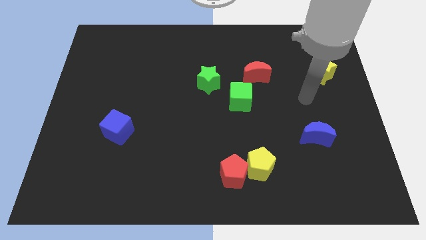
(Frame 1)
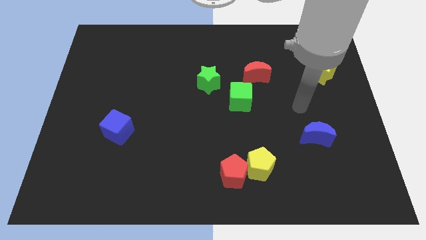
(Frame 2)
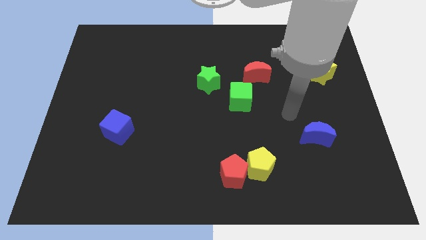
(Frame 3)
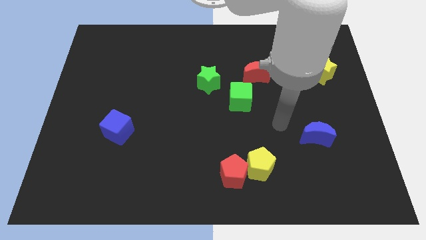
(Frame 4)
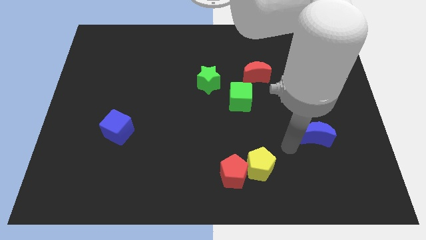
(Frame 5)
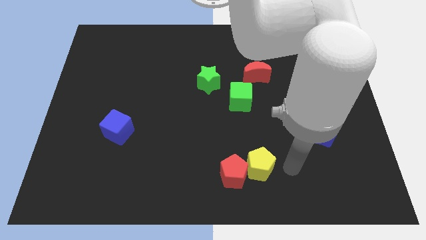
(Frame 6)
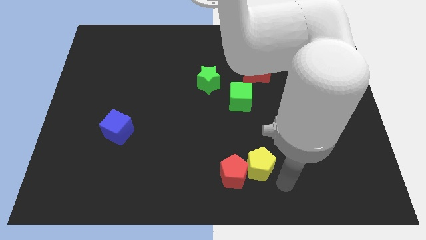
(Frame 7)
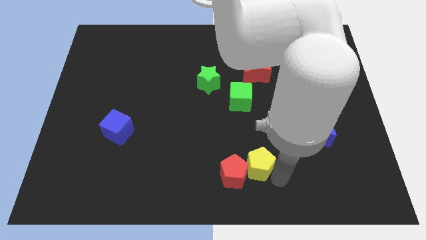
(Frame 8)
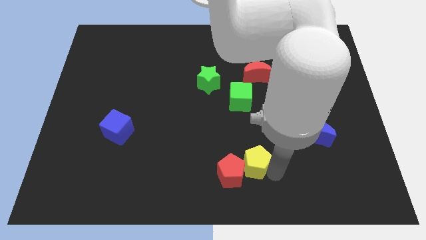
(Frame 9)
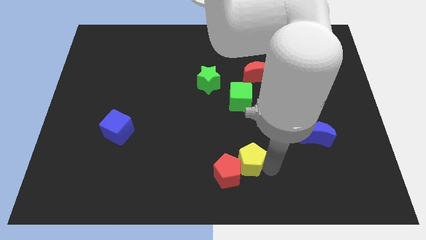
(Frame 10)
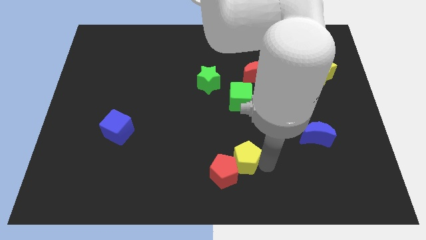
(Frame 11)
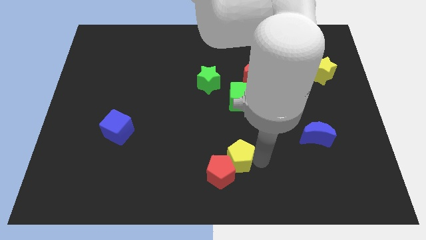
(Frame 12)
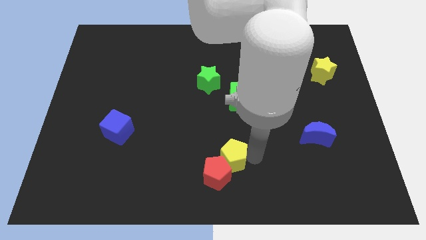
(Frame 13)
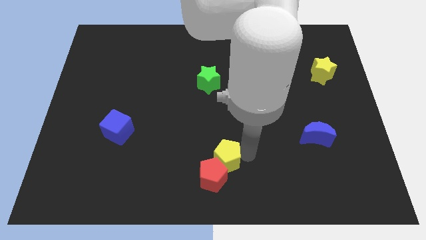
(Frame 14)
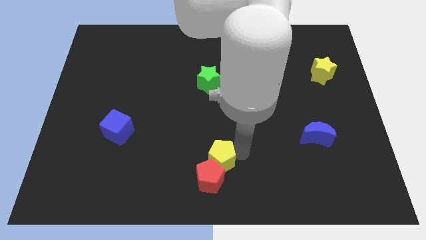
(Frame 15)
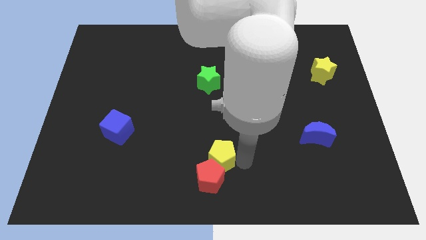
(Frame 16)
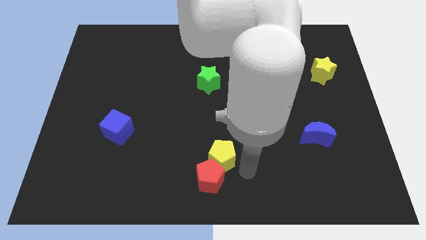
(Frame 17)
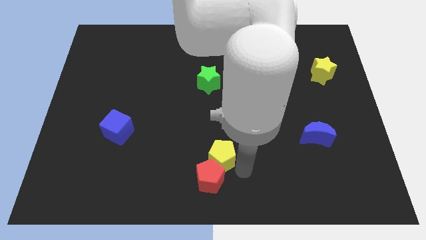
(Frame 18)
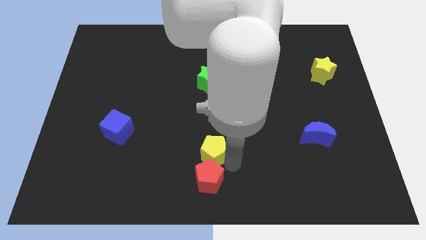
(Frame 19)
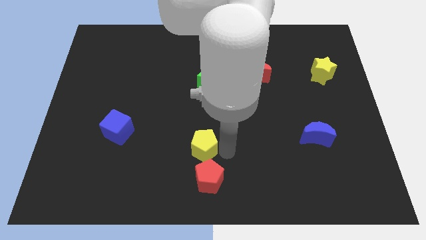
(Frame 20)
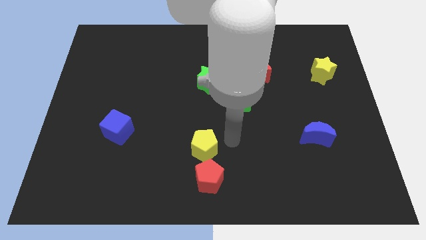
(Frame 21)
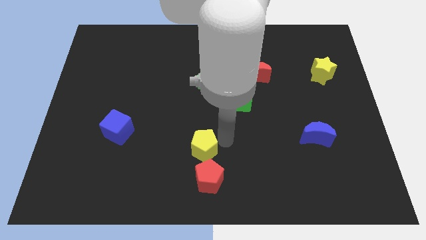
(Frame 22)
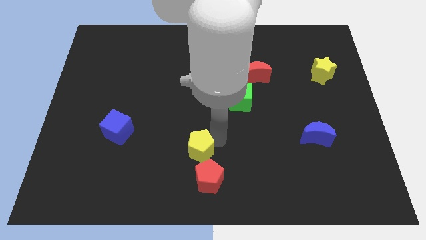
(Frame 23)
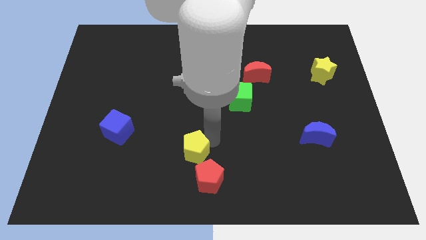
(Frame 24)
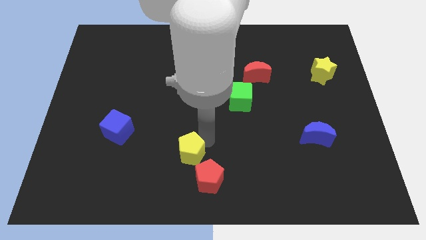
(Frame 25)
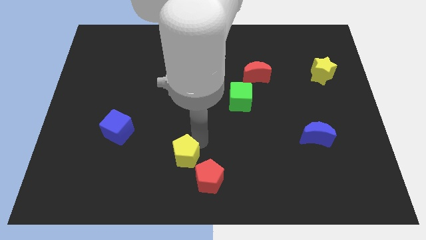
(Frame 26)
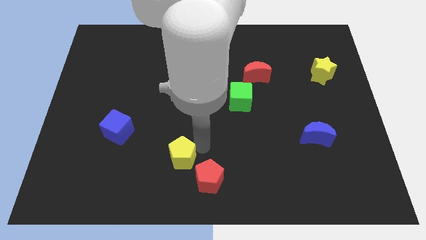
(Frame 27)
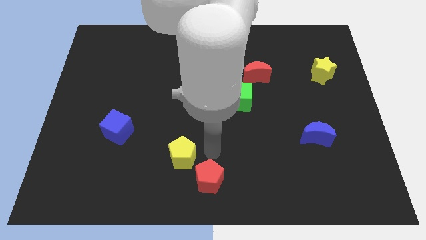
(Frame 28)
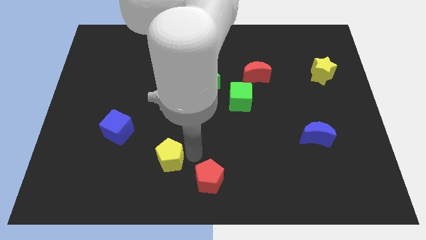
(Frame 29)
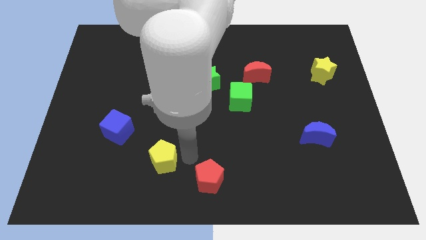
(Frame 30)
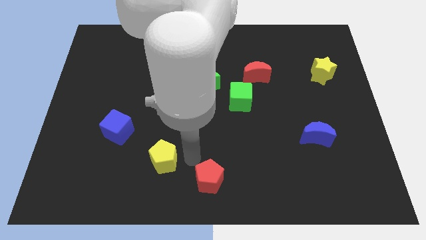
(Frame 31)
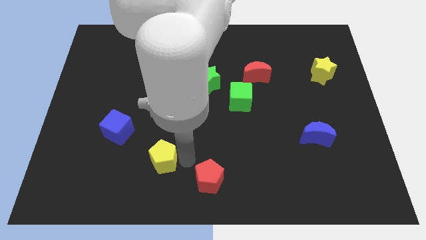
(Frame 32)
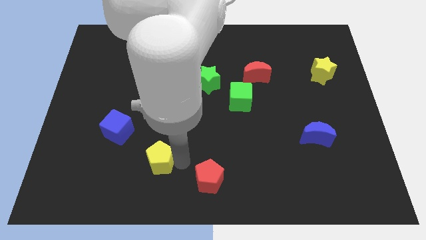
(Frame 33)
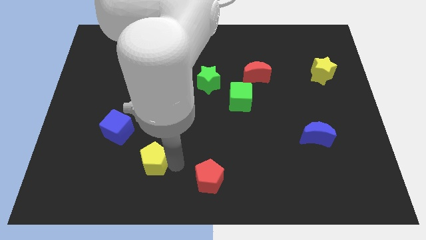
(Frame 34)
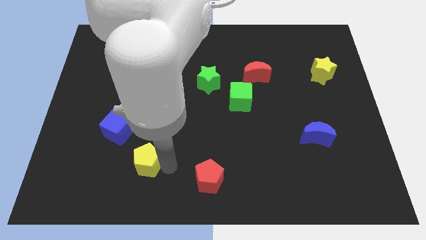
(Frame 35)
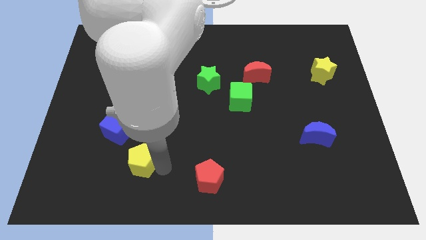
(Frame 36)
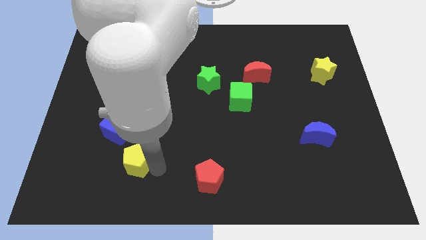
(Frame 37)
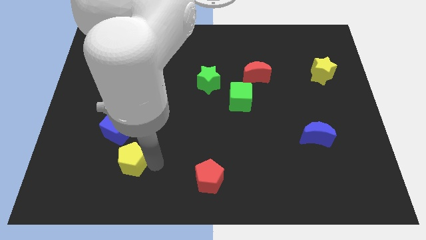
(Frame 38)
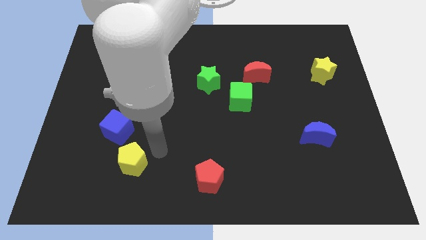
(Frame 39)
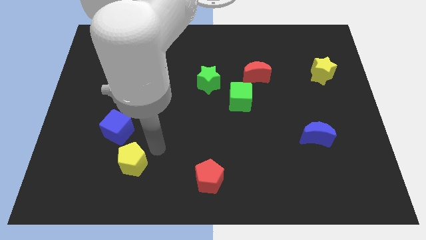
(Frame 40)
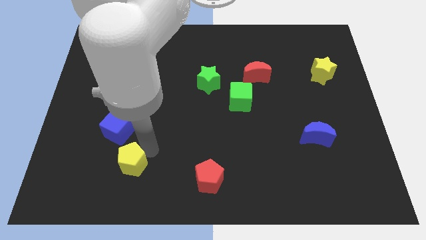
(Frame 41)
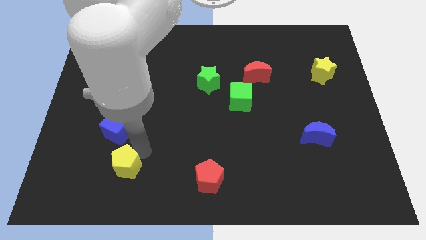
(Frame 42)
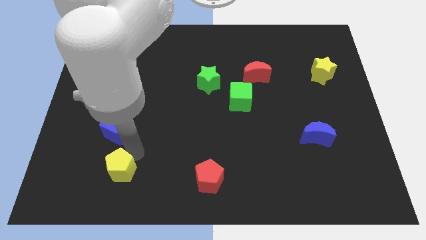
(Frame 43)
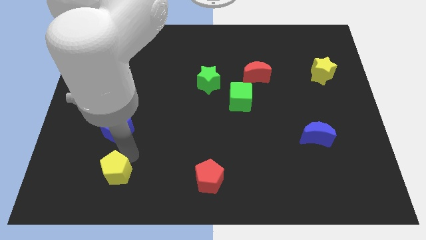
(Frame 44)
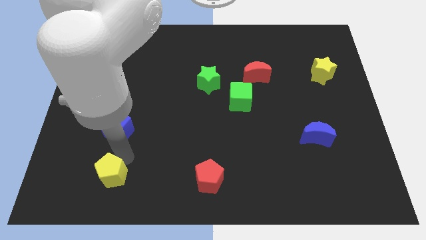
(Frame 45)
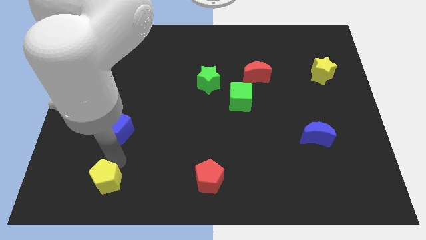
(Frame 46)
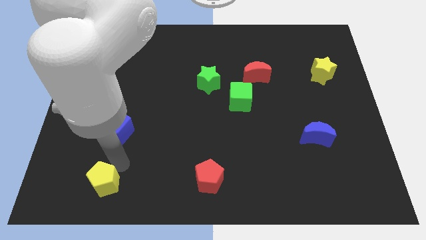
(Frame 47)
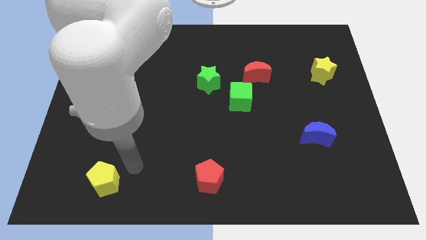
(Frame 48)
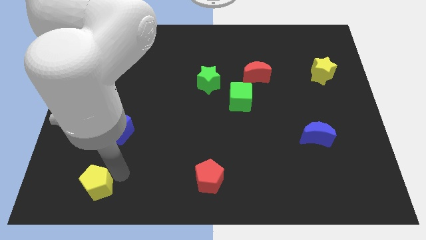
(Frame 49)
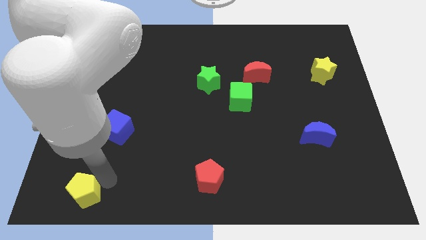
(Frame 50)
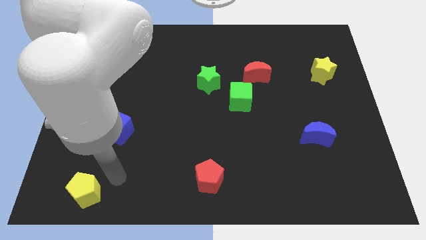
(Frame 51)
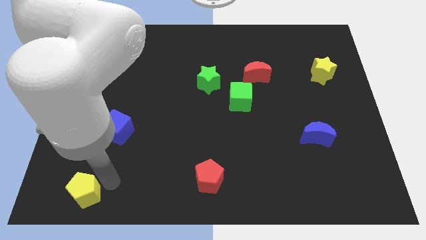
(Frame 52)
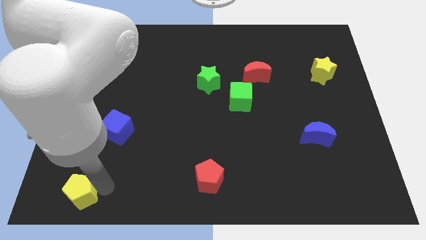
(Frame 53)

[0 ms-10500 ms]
move the yellow pentagon to the bottom left

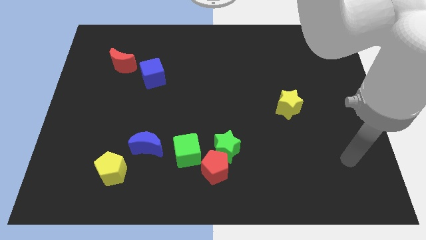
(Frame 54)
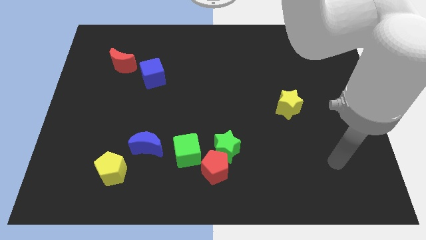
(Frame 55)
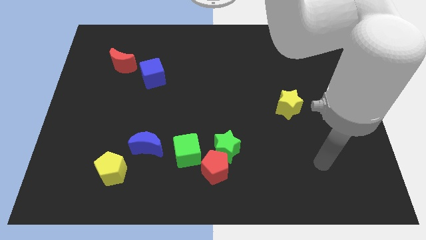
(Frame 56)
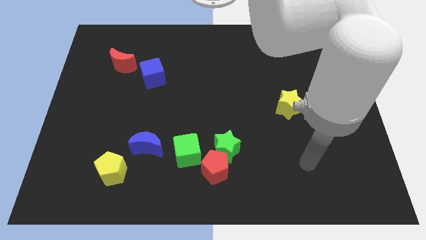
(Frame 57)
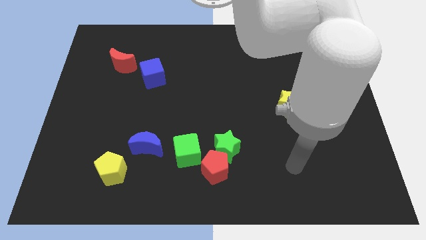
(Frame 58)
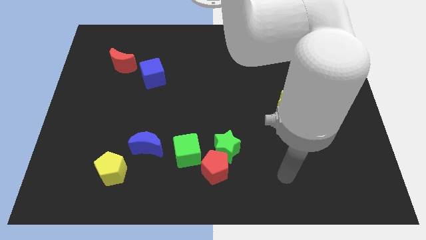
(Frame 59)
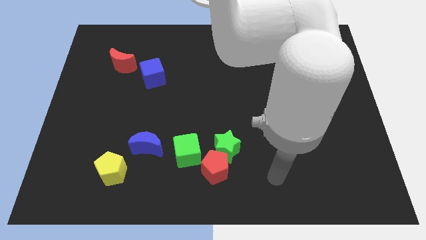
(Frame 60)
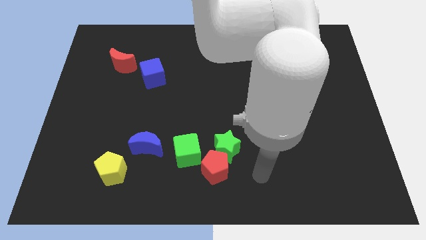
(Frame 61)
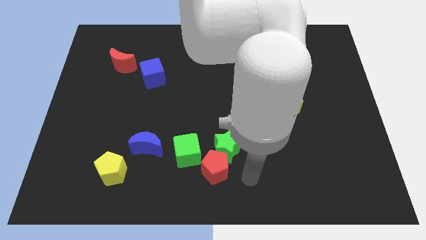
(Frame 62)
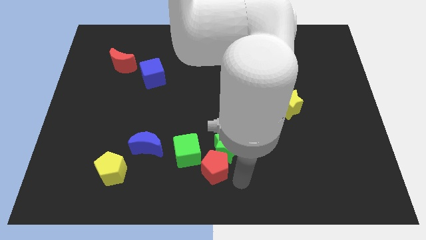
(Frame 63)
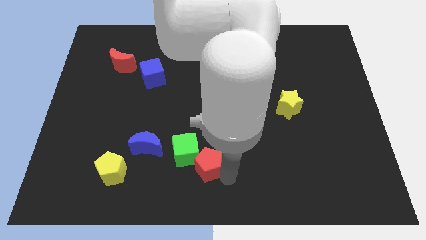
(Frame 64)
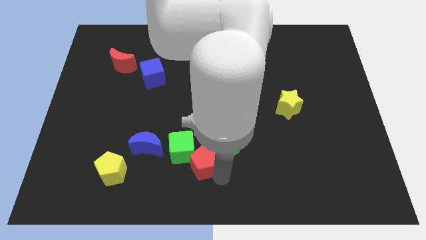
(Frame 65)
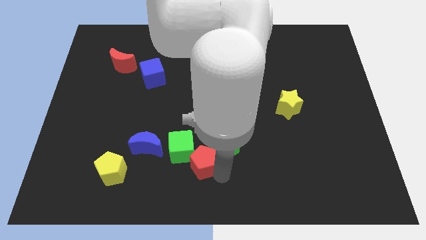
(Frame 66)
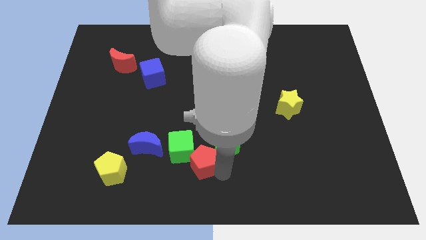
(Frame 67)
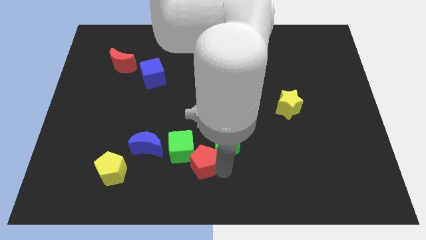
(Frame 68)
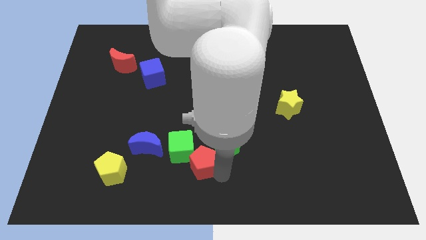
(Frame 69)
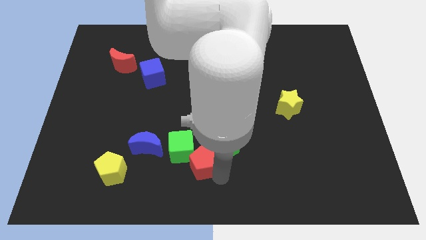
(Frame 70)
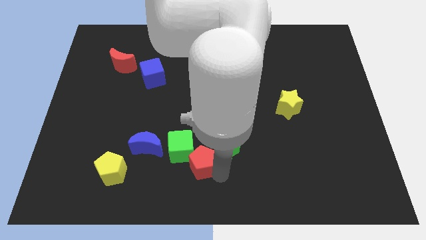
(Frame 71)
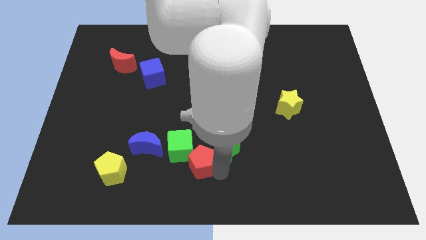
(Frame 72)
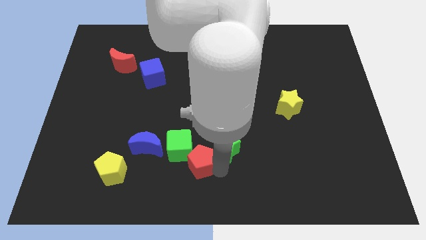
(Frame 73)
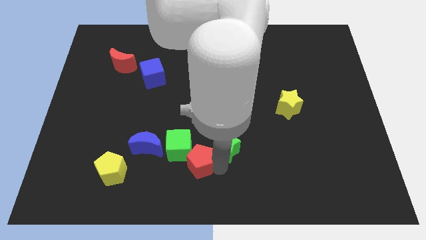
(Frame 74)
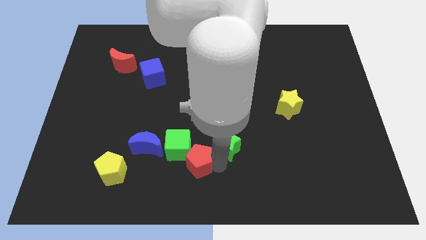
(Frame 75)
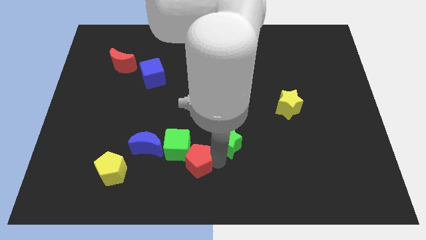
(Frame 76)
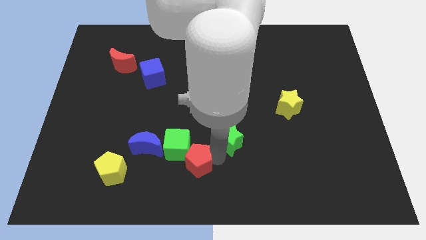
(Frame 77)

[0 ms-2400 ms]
slide the green star to the center of the board

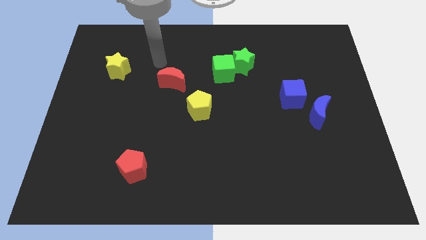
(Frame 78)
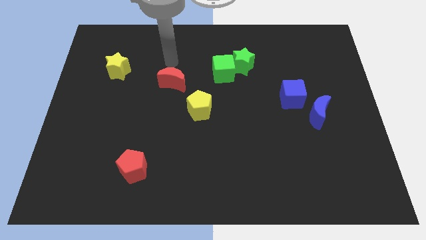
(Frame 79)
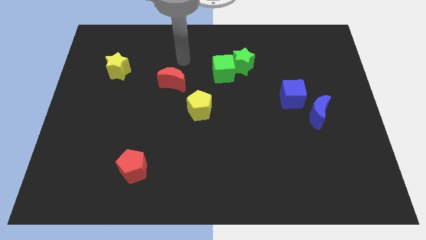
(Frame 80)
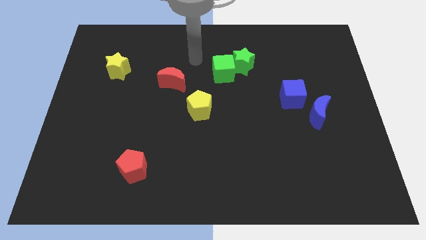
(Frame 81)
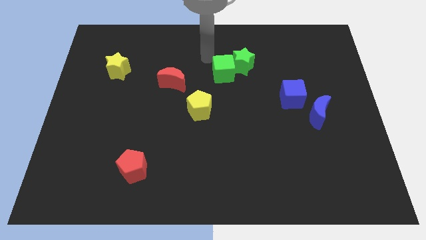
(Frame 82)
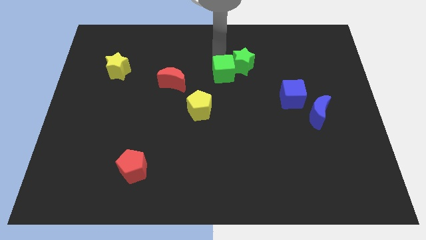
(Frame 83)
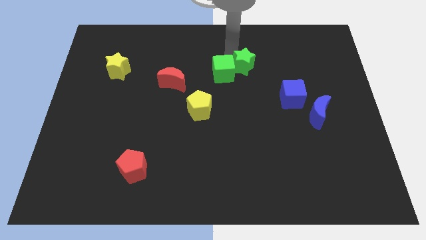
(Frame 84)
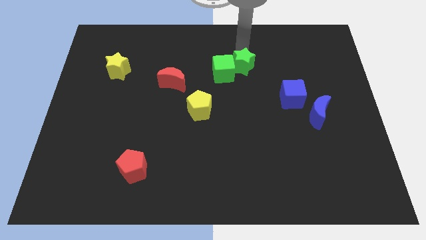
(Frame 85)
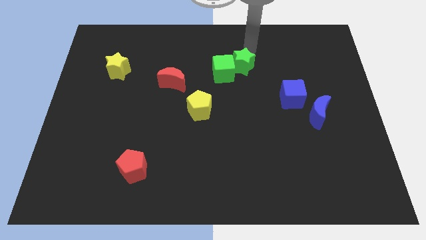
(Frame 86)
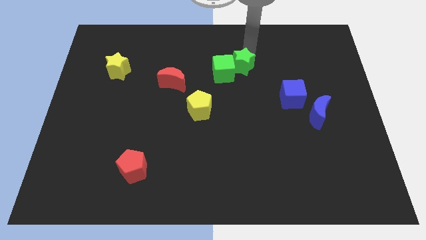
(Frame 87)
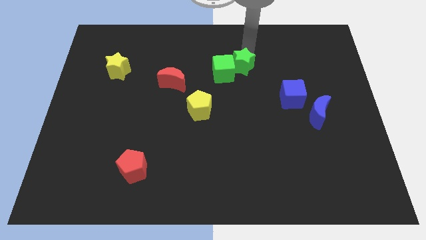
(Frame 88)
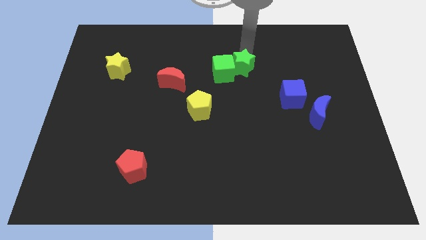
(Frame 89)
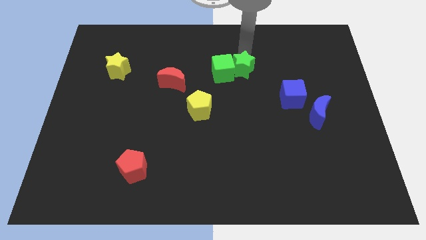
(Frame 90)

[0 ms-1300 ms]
put the green star to the middle of the board
